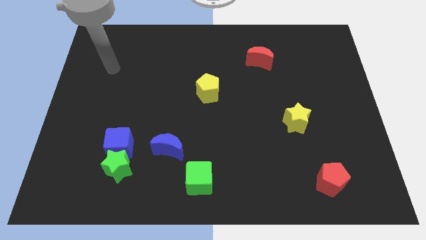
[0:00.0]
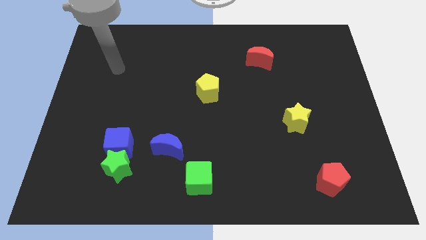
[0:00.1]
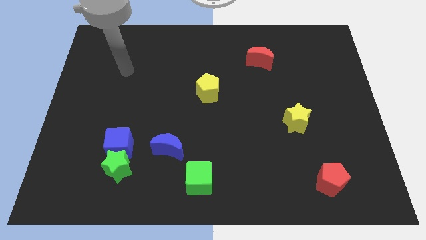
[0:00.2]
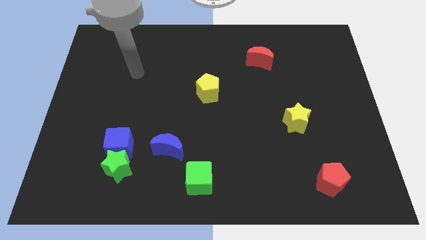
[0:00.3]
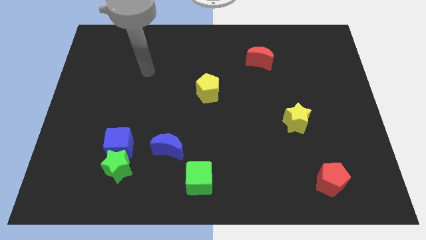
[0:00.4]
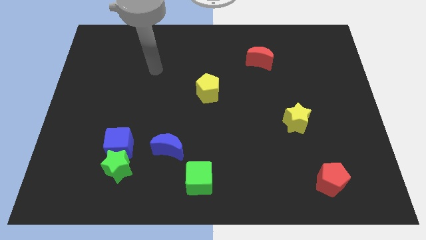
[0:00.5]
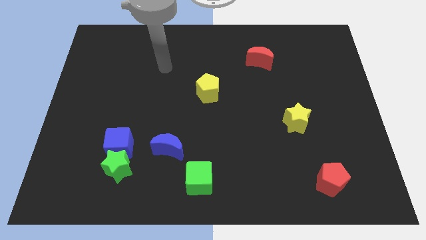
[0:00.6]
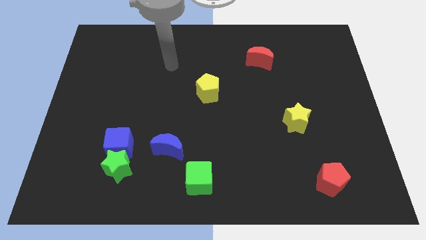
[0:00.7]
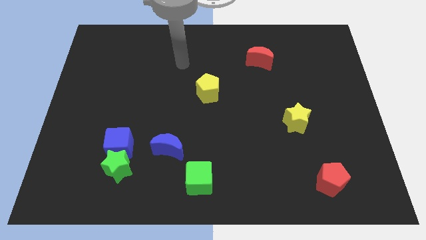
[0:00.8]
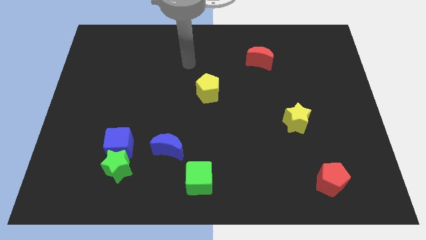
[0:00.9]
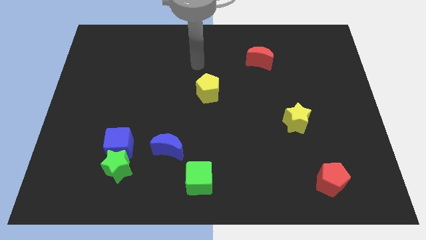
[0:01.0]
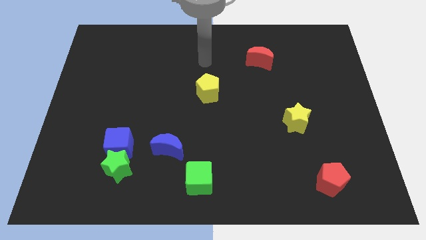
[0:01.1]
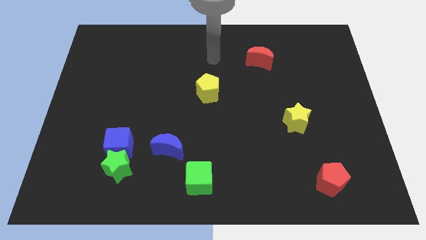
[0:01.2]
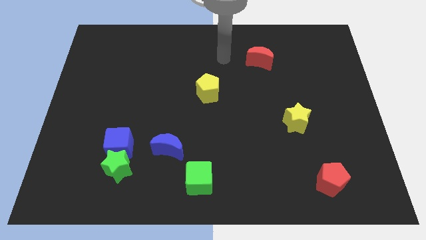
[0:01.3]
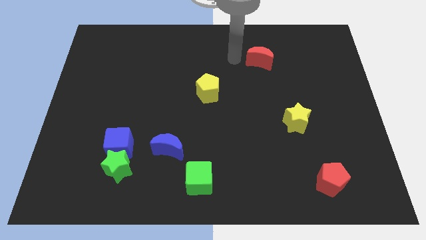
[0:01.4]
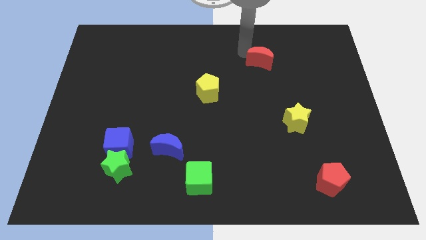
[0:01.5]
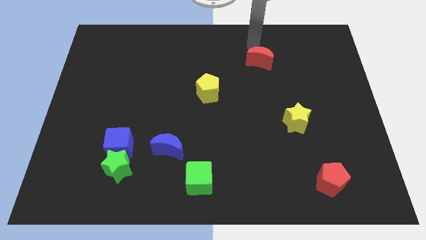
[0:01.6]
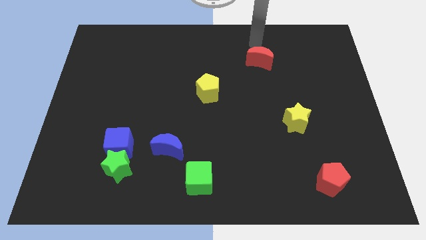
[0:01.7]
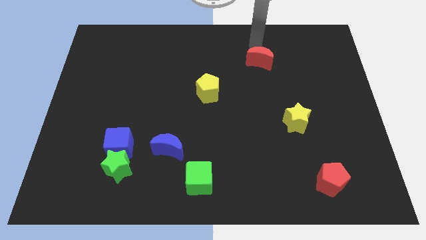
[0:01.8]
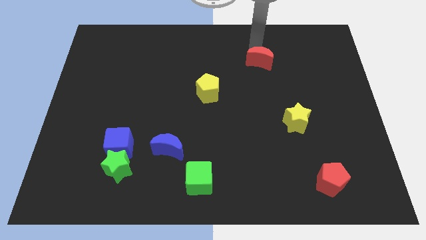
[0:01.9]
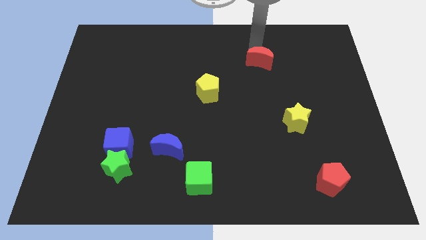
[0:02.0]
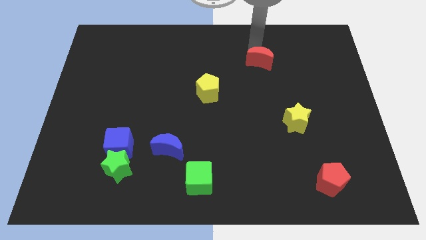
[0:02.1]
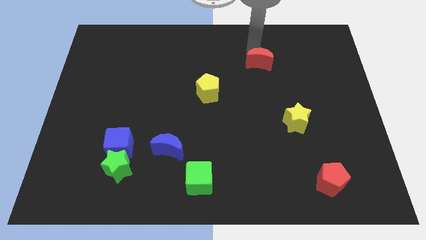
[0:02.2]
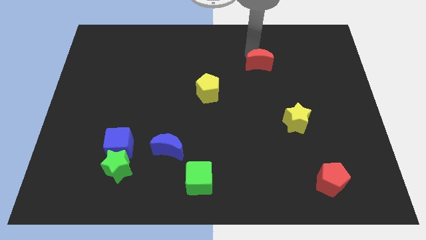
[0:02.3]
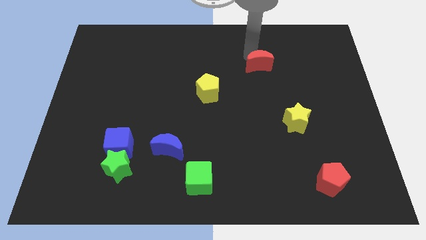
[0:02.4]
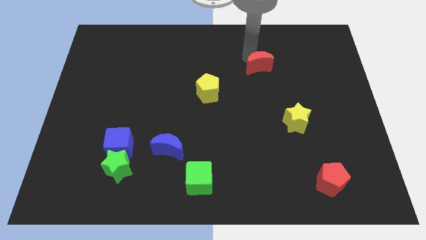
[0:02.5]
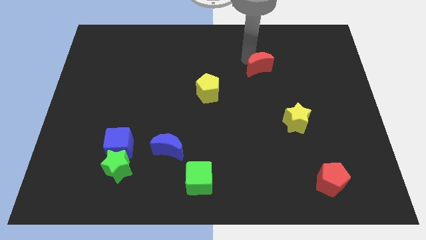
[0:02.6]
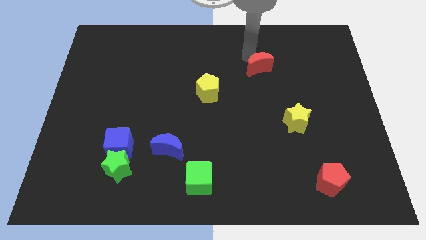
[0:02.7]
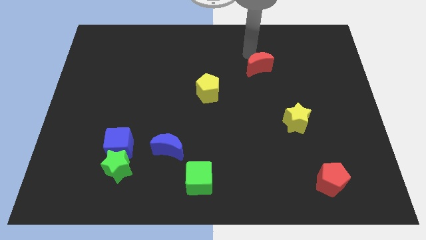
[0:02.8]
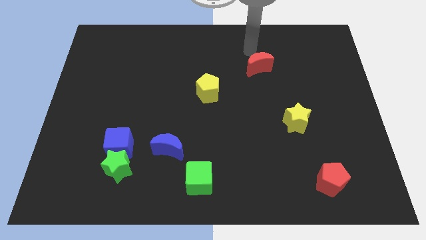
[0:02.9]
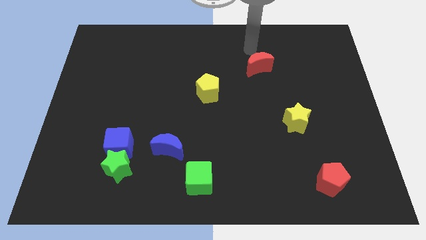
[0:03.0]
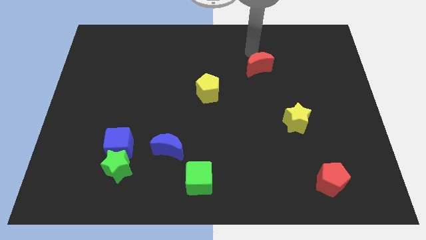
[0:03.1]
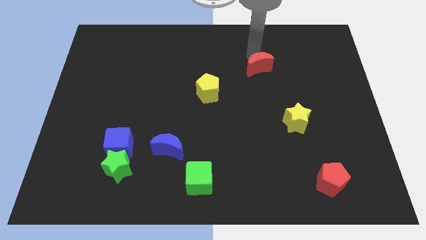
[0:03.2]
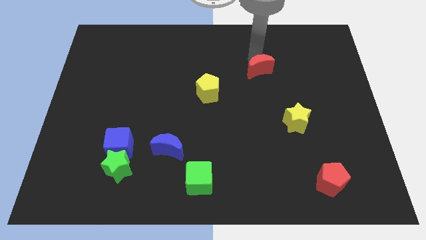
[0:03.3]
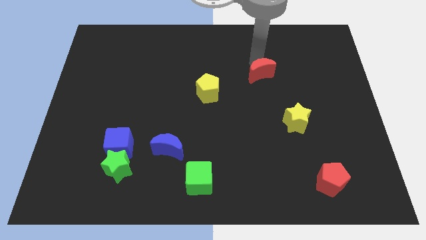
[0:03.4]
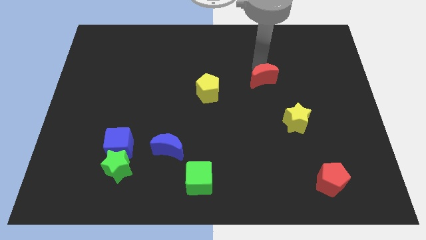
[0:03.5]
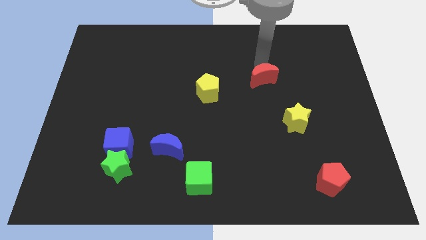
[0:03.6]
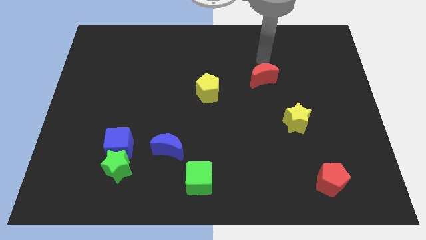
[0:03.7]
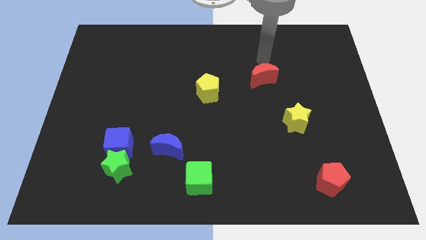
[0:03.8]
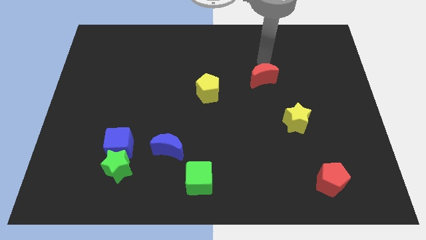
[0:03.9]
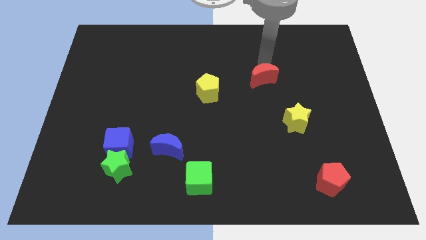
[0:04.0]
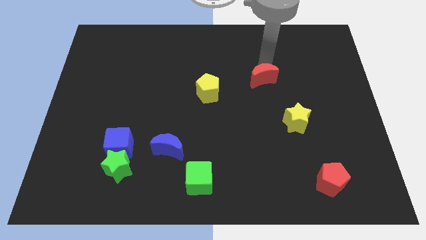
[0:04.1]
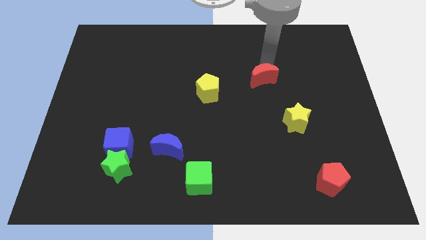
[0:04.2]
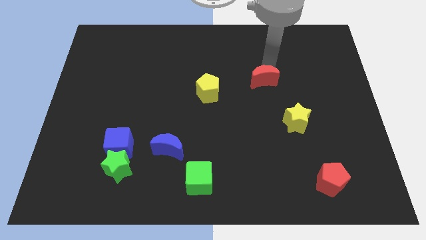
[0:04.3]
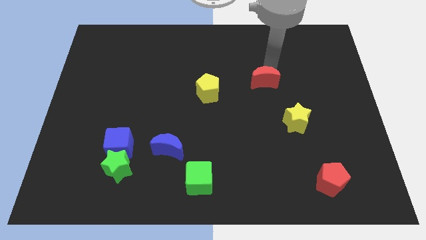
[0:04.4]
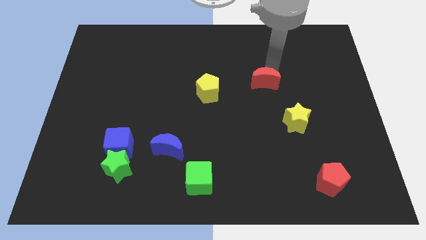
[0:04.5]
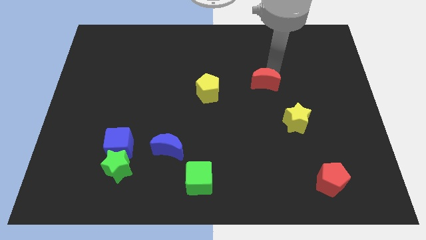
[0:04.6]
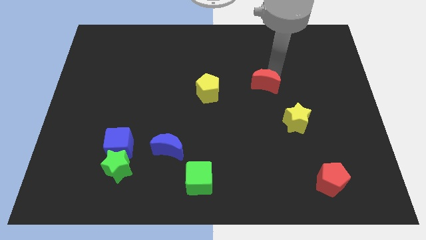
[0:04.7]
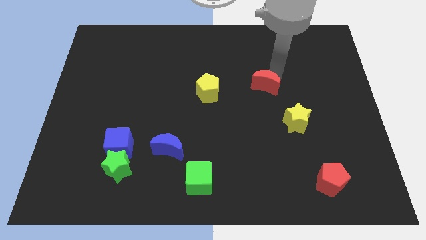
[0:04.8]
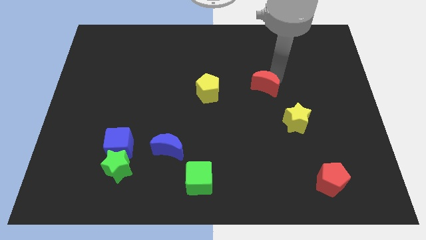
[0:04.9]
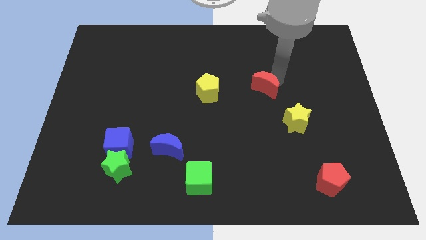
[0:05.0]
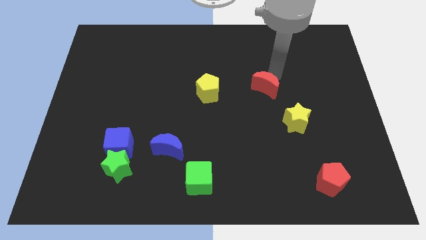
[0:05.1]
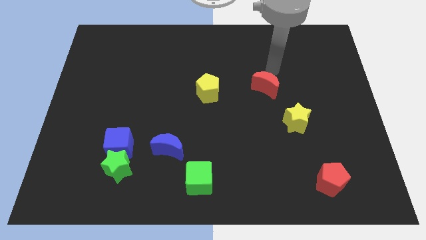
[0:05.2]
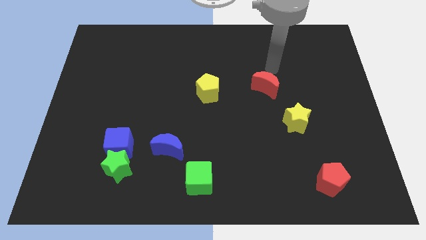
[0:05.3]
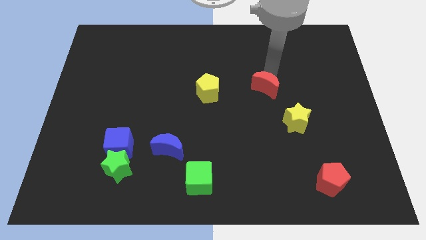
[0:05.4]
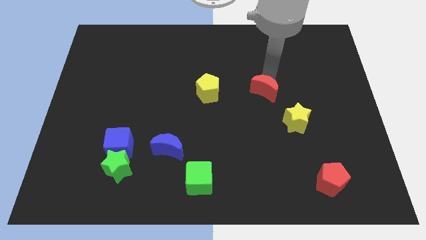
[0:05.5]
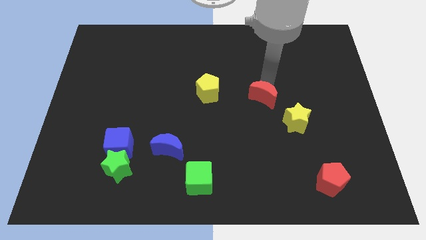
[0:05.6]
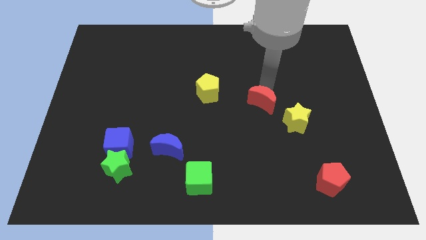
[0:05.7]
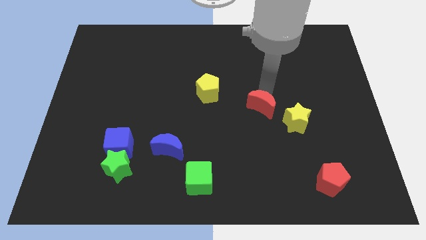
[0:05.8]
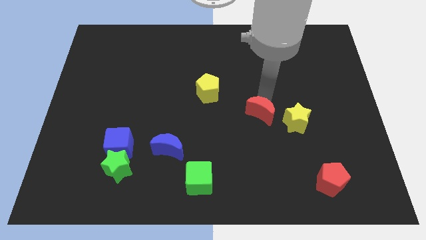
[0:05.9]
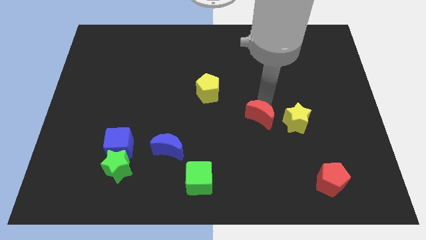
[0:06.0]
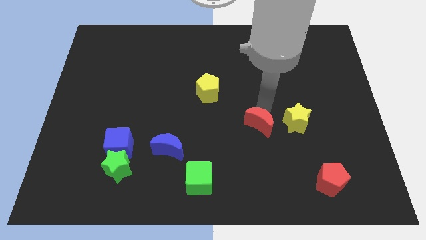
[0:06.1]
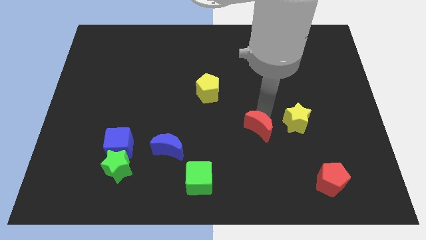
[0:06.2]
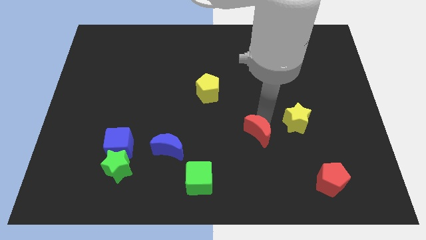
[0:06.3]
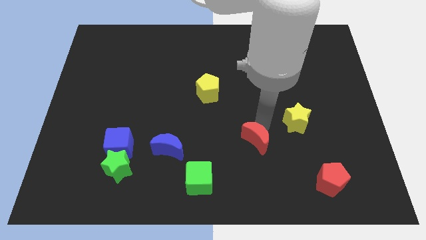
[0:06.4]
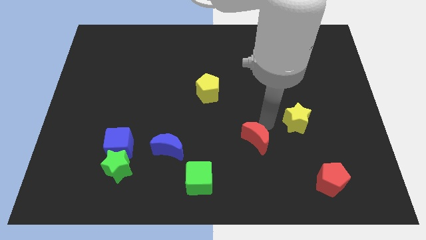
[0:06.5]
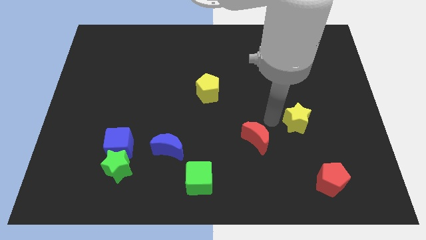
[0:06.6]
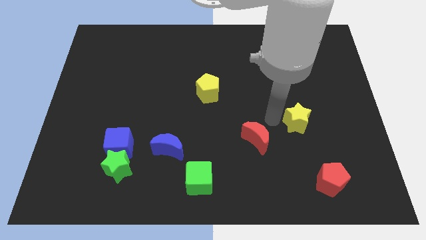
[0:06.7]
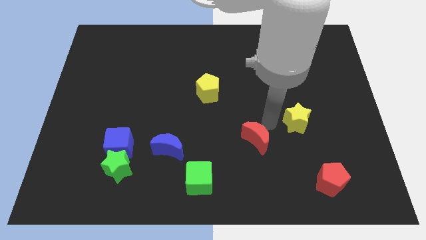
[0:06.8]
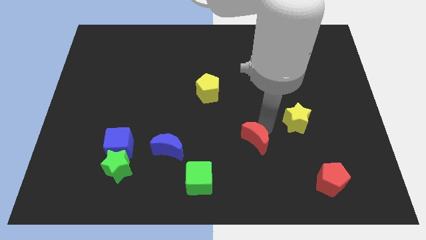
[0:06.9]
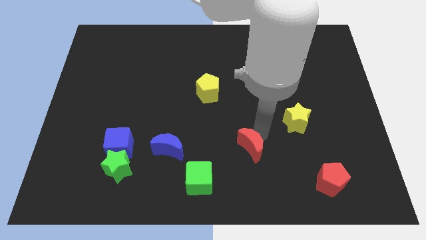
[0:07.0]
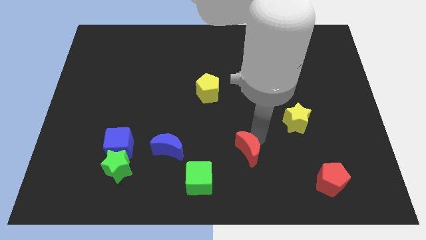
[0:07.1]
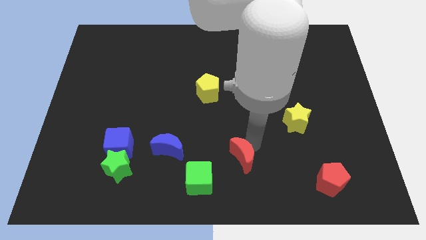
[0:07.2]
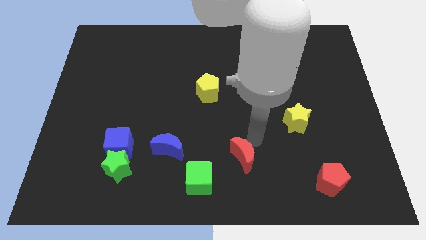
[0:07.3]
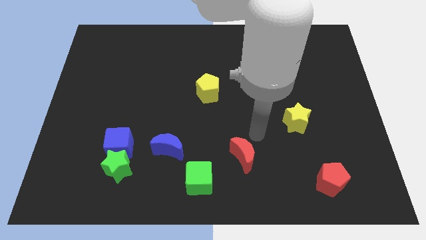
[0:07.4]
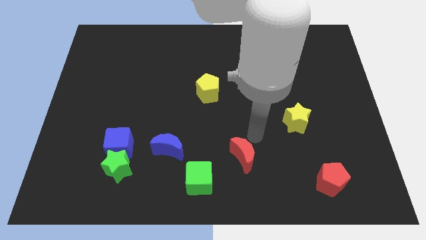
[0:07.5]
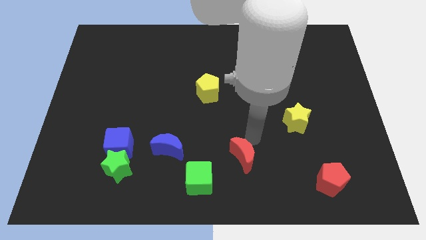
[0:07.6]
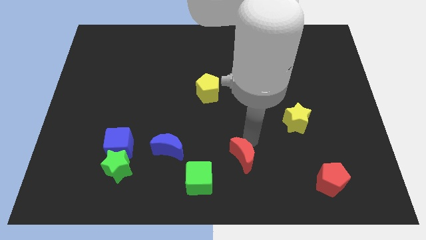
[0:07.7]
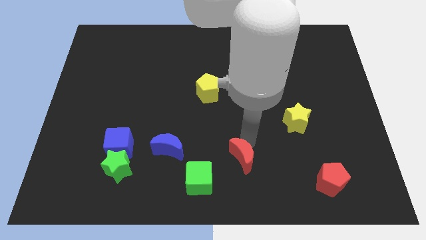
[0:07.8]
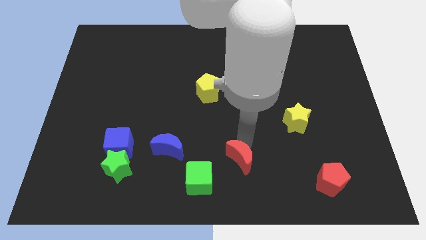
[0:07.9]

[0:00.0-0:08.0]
slide the red moon to the bottom side
